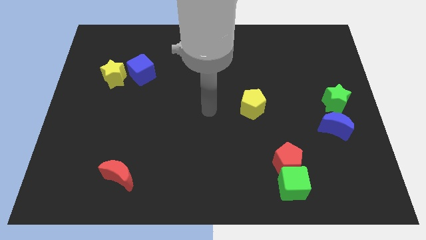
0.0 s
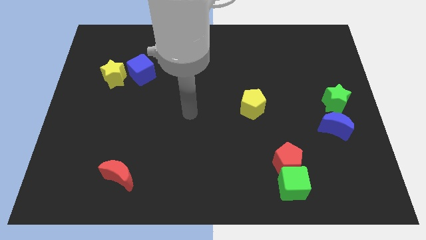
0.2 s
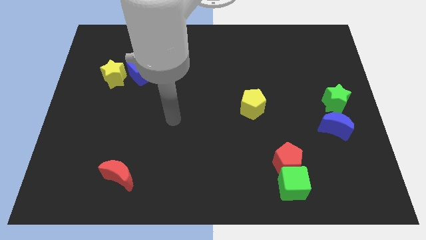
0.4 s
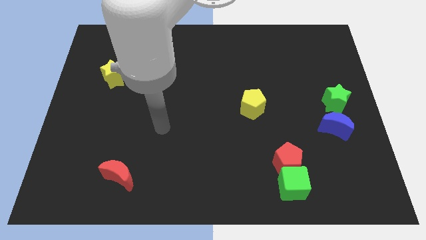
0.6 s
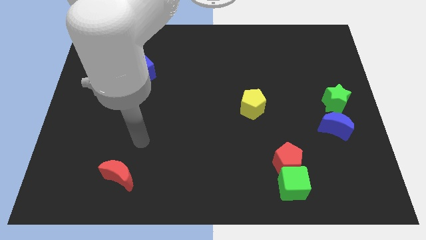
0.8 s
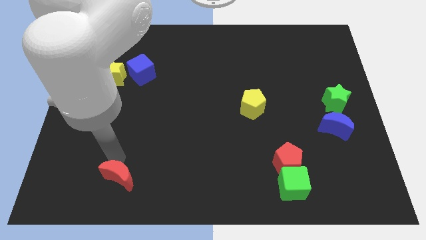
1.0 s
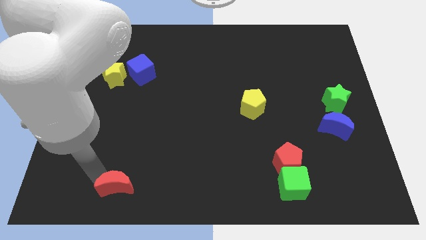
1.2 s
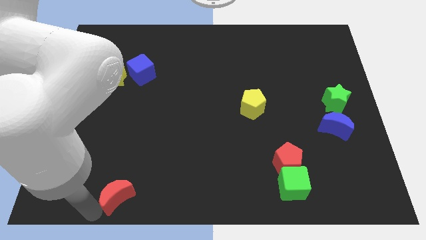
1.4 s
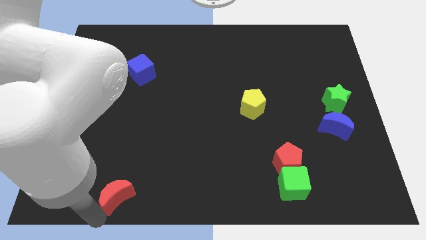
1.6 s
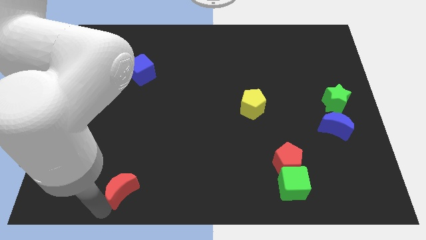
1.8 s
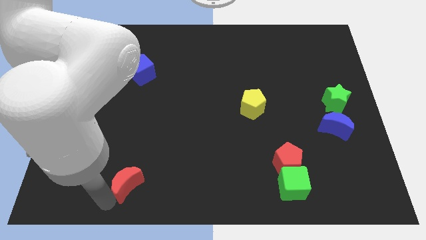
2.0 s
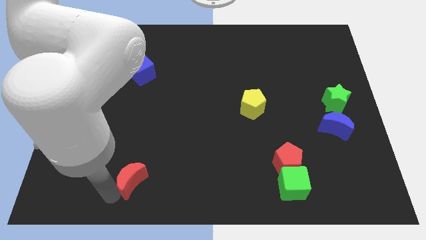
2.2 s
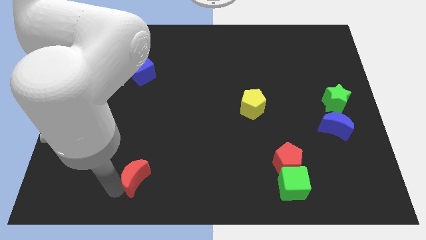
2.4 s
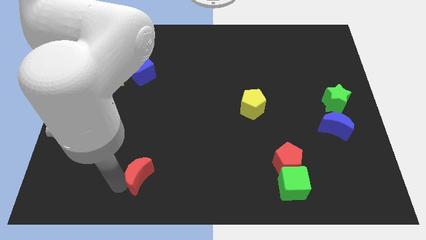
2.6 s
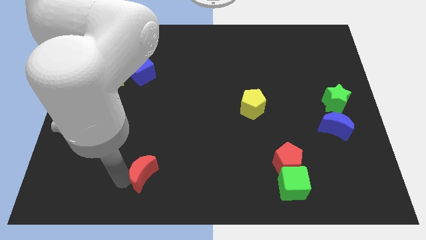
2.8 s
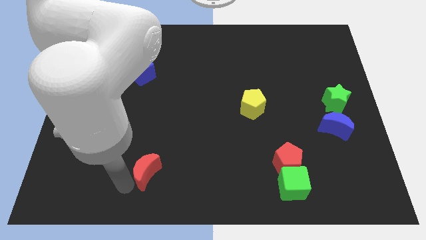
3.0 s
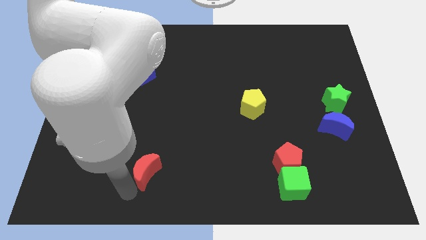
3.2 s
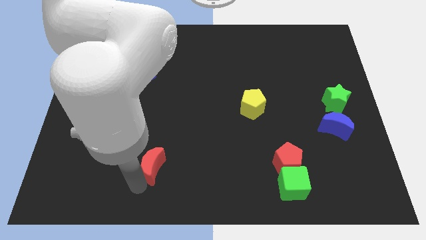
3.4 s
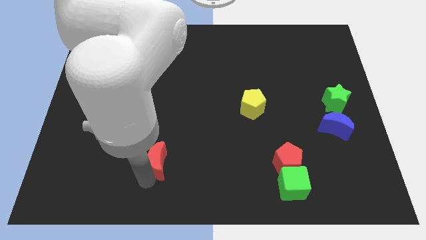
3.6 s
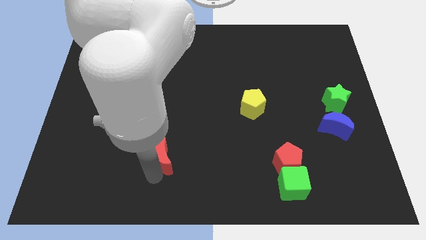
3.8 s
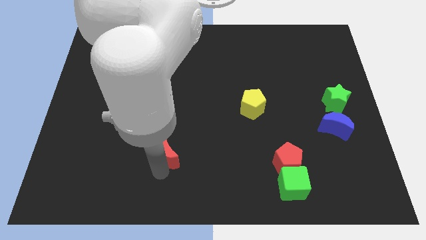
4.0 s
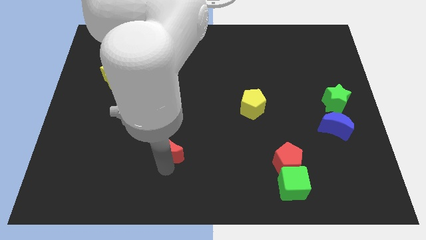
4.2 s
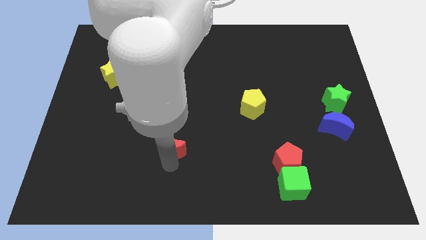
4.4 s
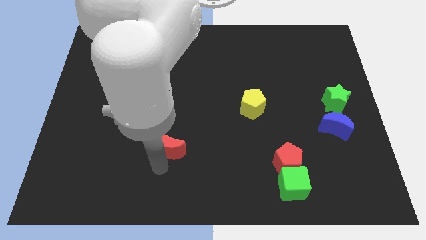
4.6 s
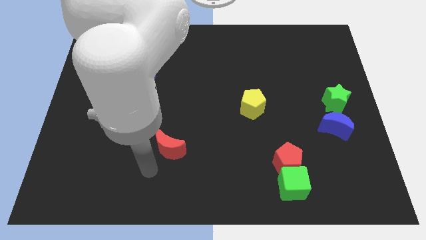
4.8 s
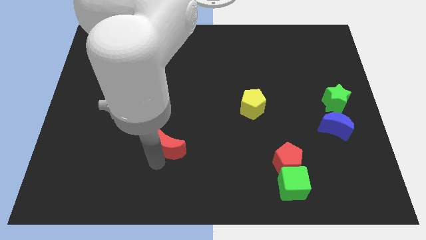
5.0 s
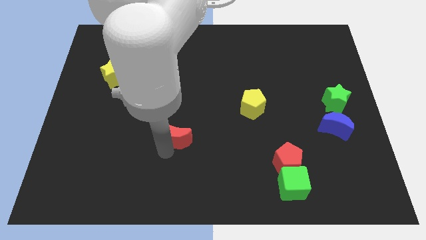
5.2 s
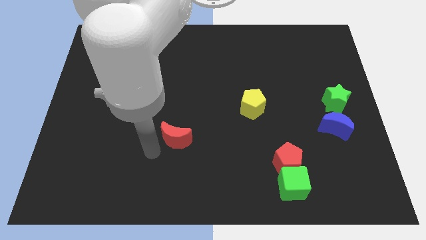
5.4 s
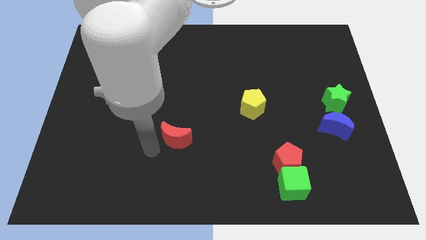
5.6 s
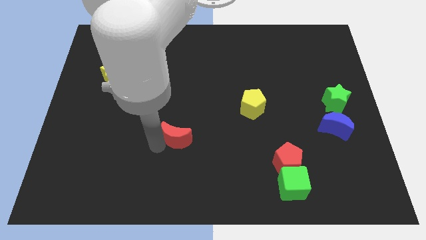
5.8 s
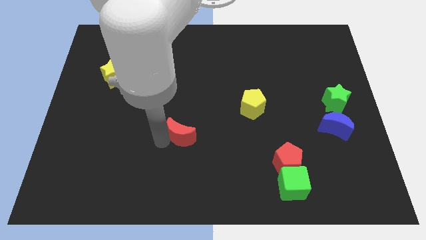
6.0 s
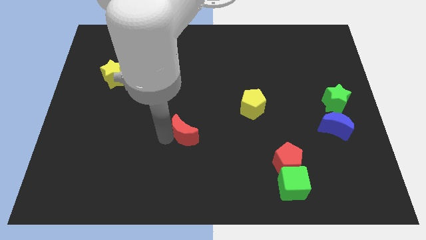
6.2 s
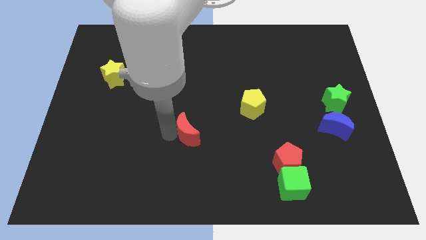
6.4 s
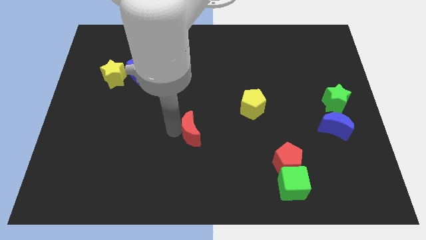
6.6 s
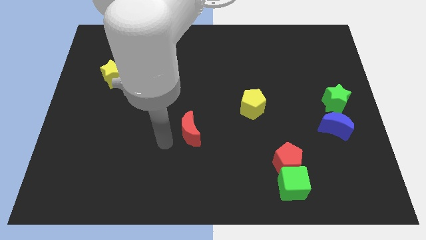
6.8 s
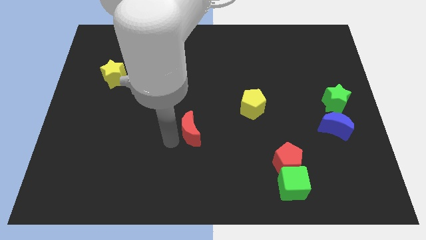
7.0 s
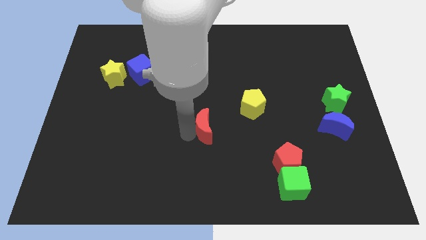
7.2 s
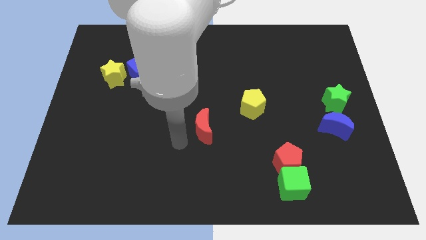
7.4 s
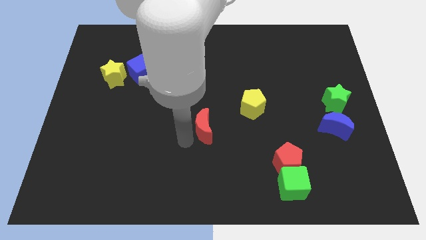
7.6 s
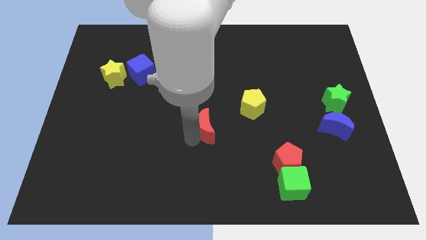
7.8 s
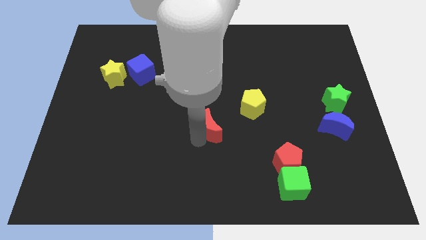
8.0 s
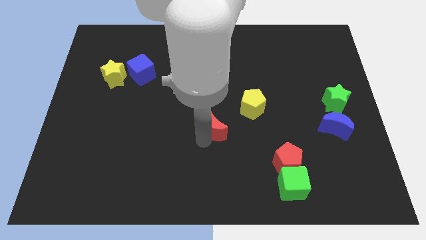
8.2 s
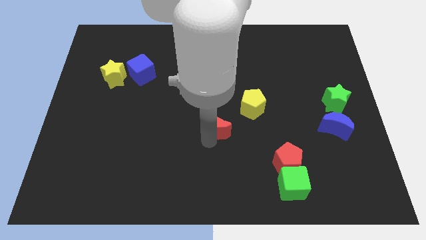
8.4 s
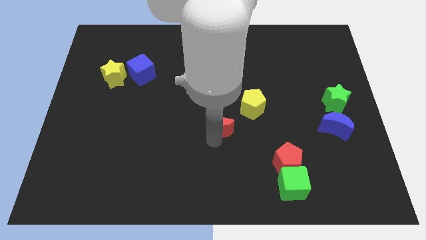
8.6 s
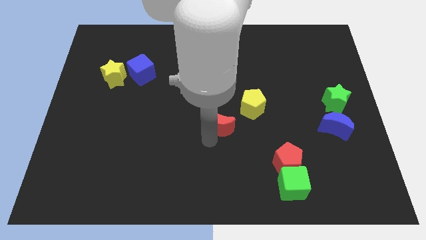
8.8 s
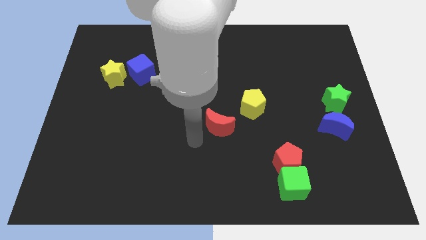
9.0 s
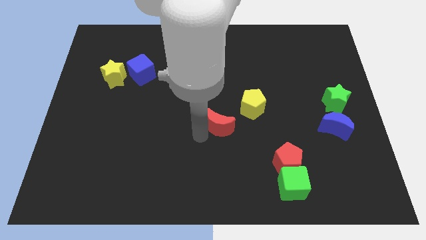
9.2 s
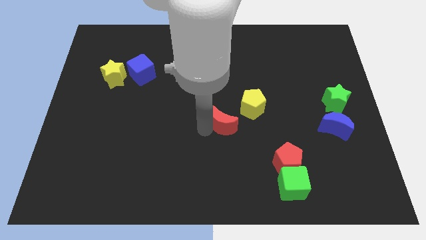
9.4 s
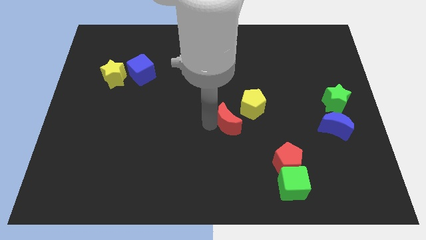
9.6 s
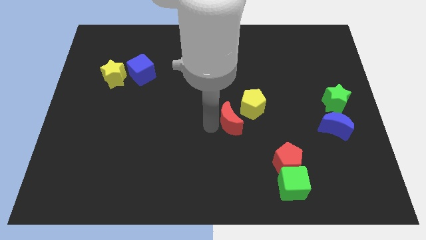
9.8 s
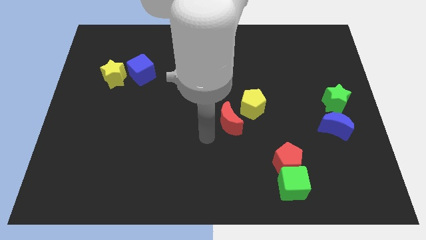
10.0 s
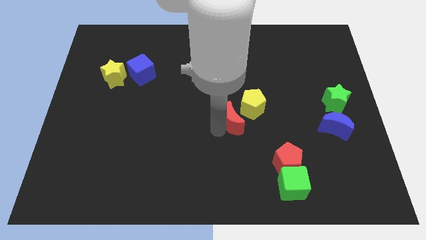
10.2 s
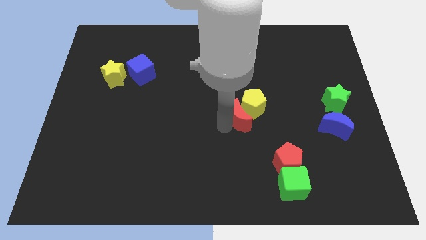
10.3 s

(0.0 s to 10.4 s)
put the red moon close to the yellow pentagon

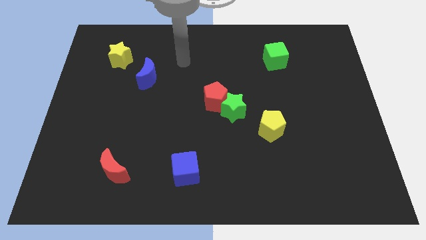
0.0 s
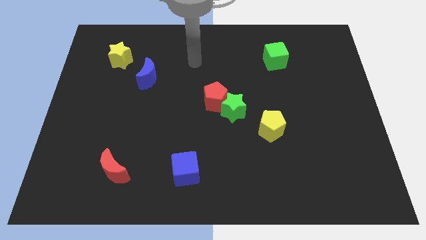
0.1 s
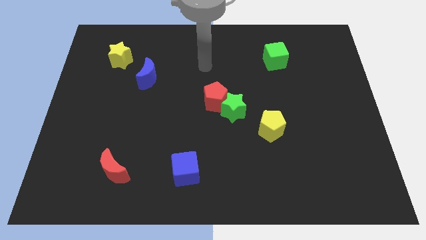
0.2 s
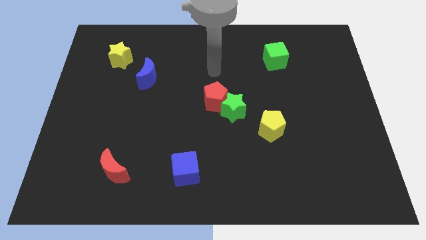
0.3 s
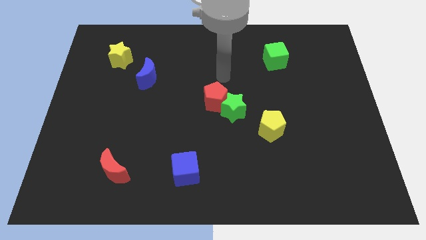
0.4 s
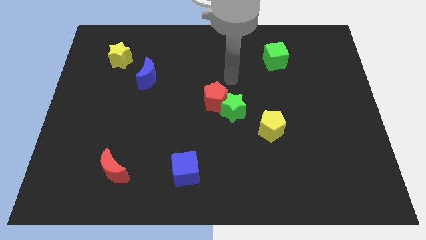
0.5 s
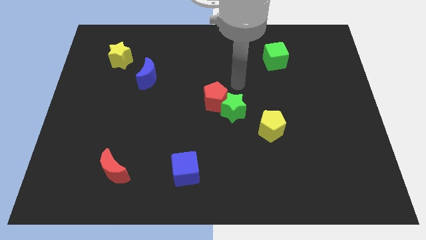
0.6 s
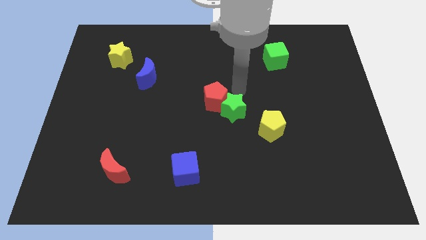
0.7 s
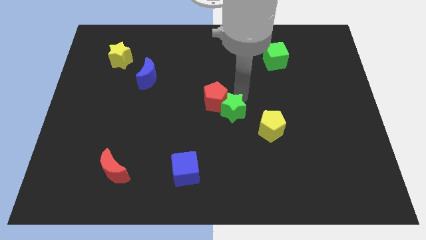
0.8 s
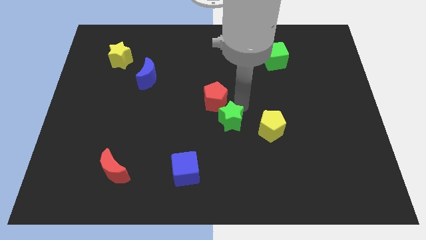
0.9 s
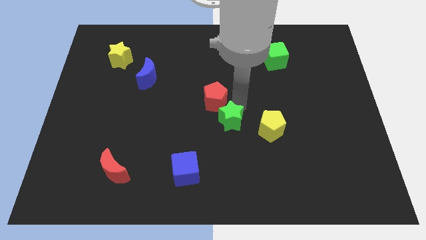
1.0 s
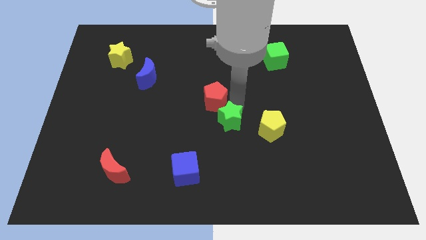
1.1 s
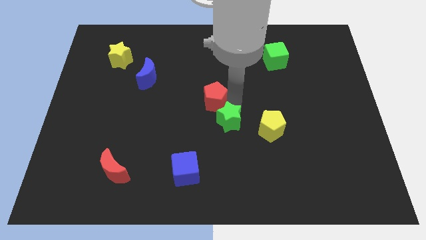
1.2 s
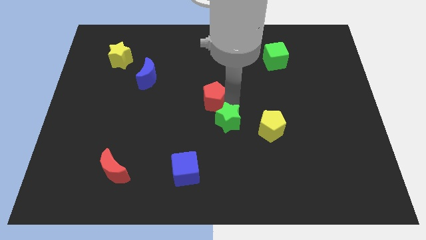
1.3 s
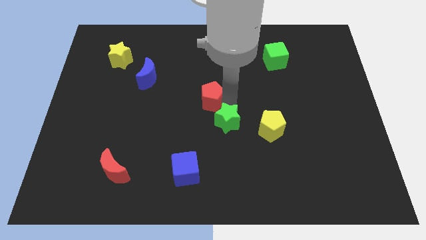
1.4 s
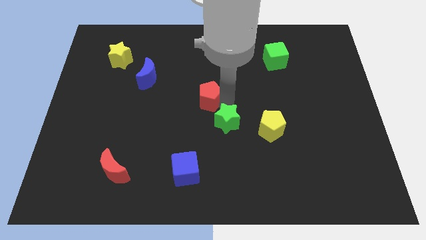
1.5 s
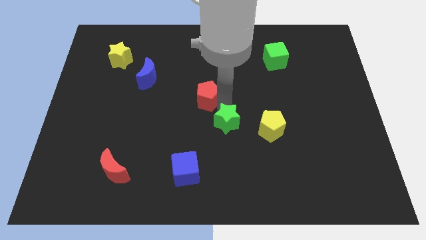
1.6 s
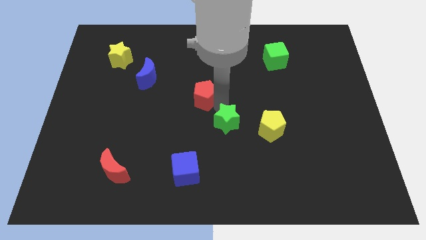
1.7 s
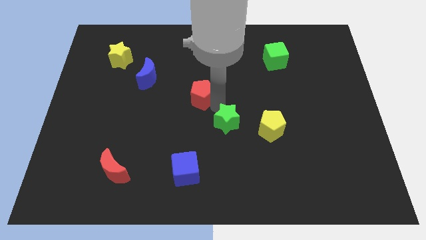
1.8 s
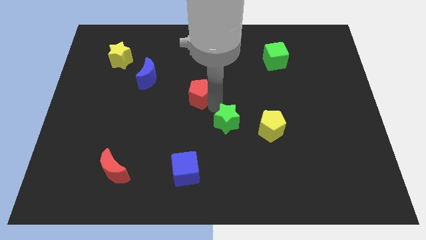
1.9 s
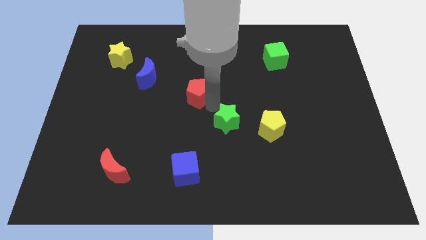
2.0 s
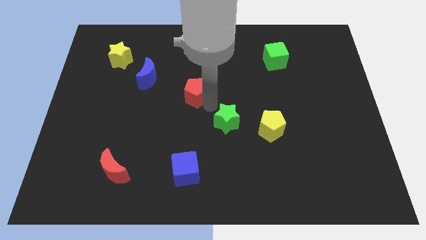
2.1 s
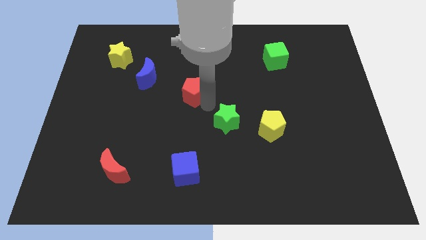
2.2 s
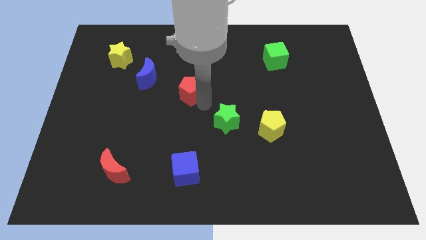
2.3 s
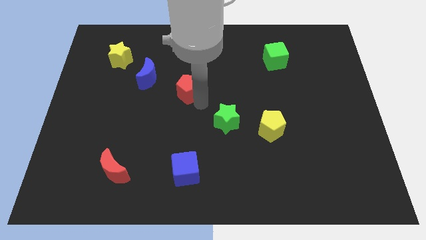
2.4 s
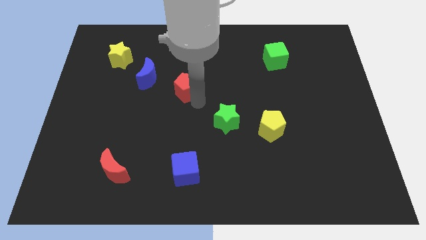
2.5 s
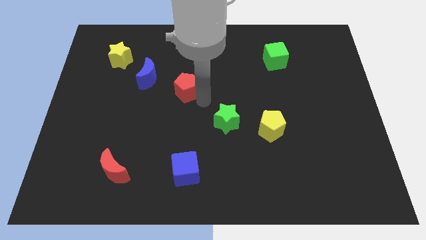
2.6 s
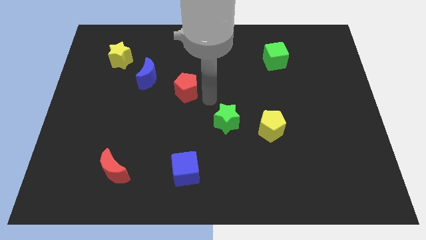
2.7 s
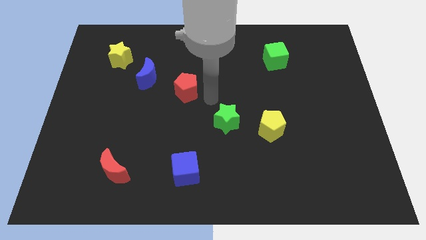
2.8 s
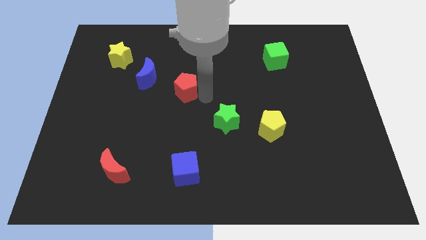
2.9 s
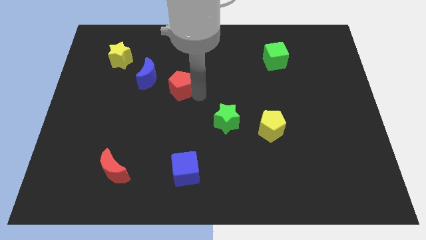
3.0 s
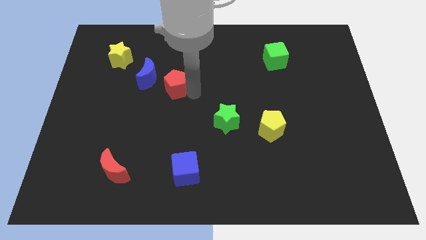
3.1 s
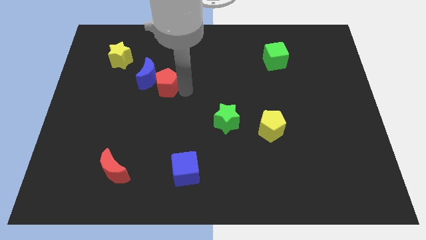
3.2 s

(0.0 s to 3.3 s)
put the red pentagon next to the blue moon
